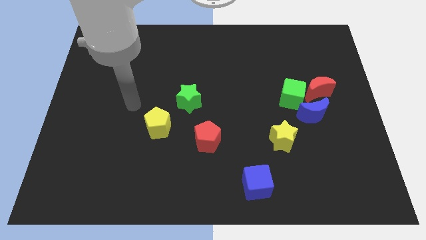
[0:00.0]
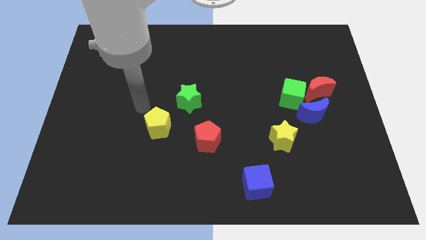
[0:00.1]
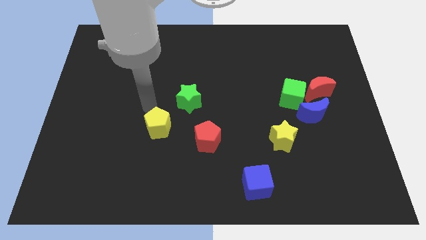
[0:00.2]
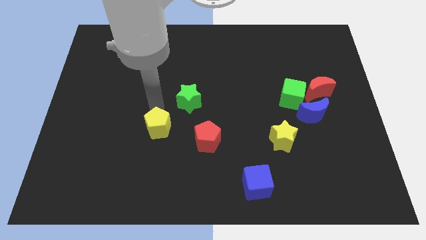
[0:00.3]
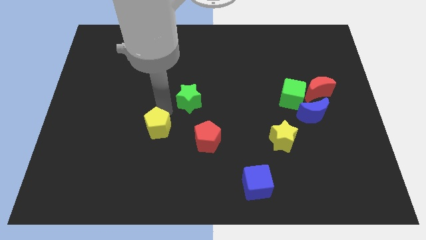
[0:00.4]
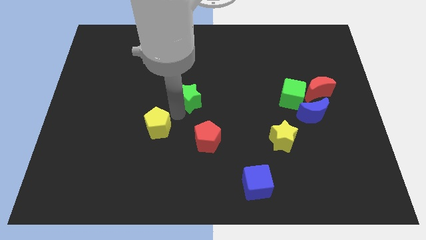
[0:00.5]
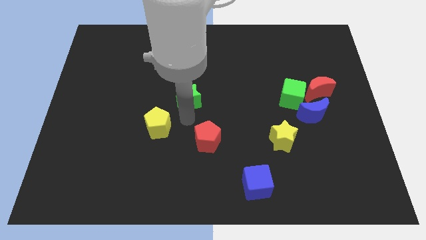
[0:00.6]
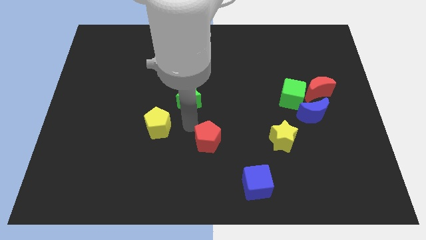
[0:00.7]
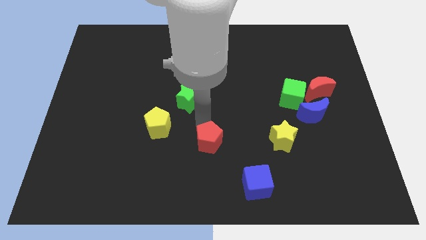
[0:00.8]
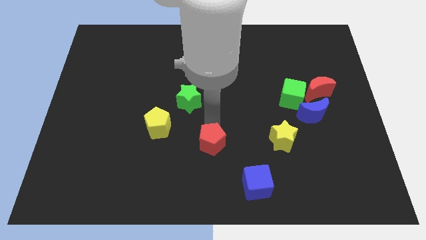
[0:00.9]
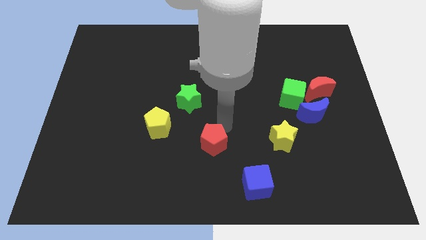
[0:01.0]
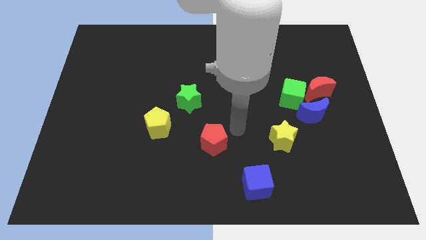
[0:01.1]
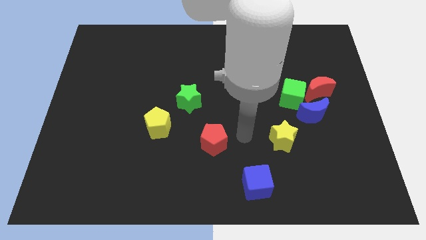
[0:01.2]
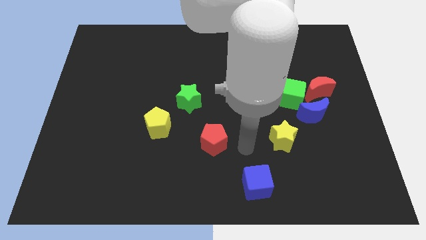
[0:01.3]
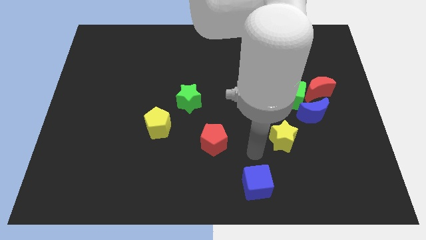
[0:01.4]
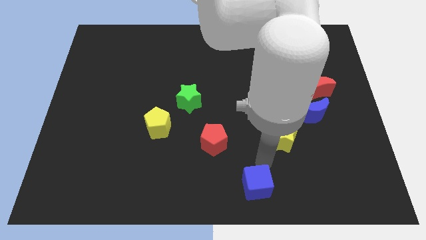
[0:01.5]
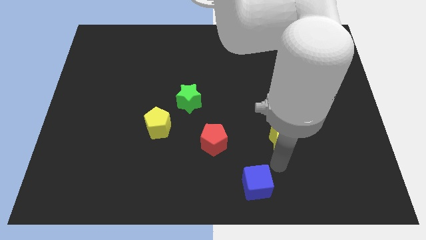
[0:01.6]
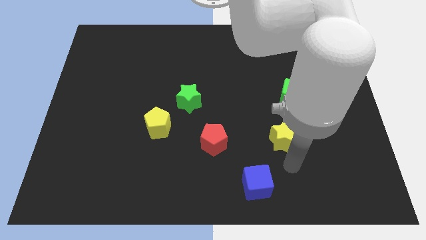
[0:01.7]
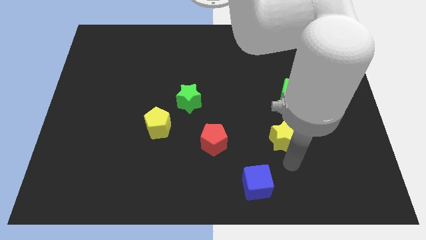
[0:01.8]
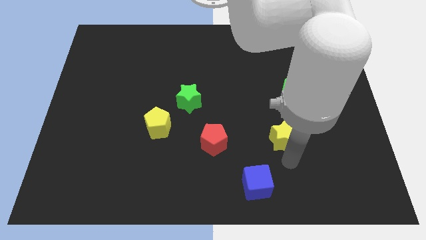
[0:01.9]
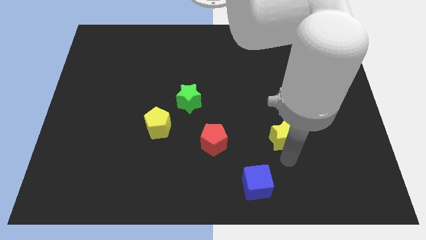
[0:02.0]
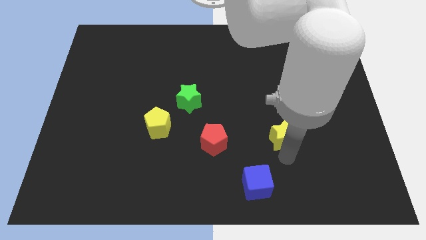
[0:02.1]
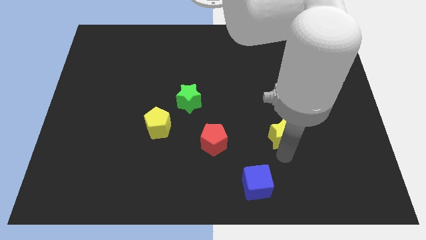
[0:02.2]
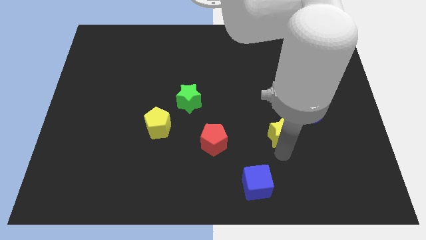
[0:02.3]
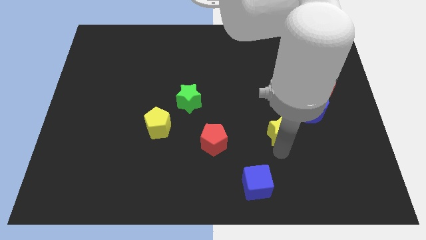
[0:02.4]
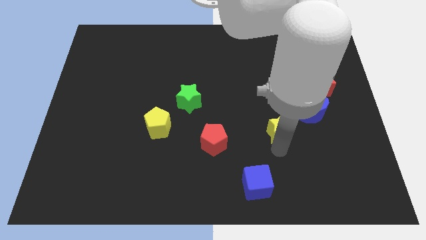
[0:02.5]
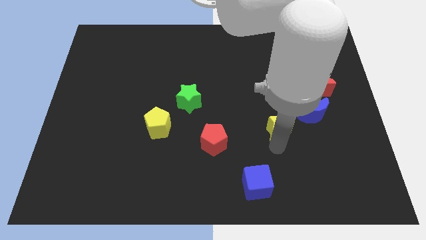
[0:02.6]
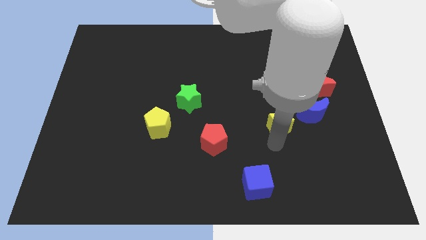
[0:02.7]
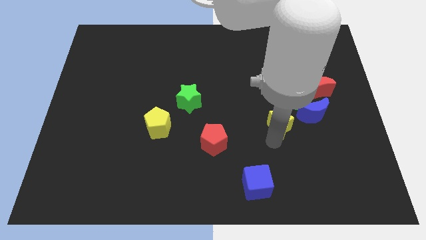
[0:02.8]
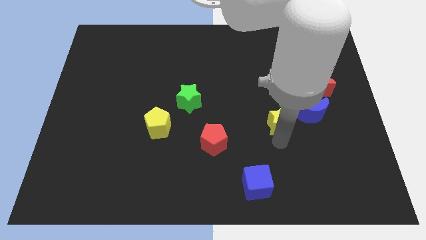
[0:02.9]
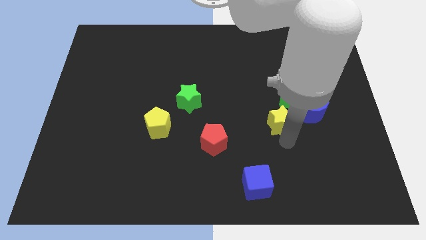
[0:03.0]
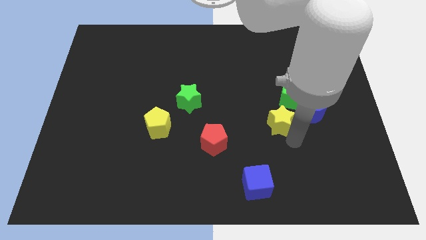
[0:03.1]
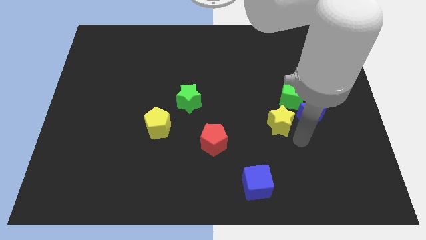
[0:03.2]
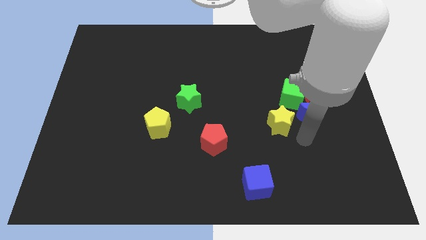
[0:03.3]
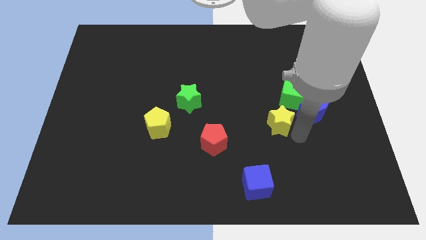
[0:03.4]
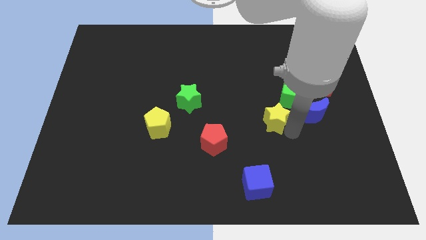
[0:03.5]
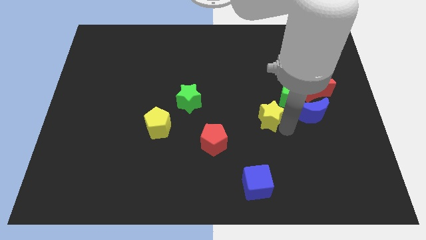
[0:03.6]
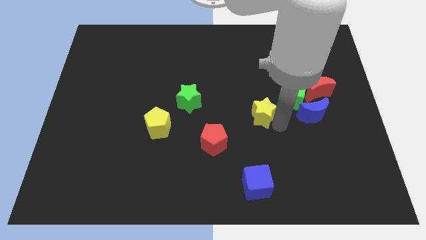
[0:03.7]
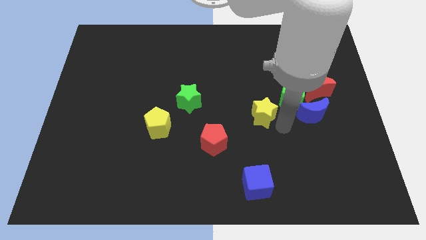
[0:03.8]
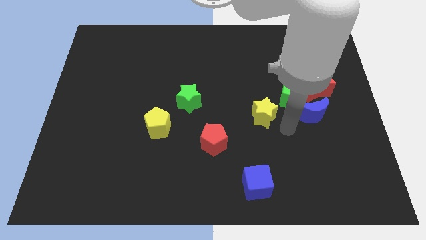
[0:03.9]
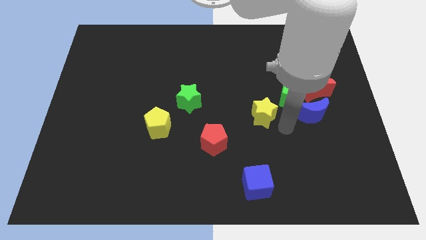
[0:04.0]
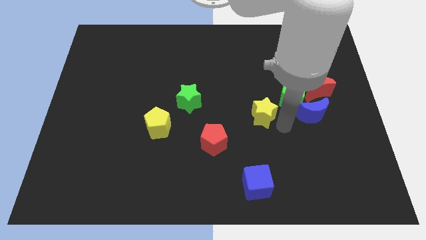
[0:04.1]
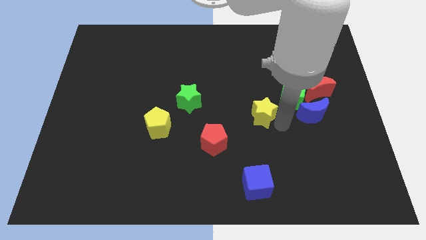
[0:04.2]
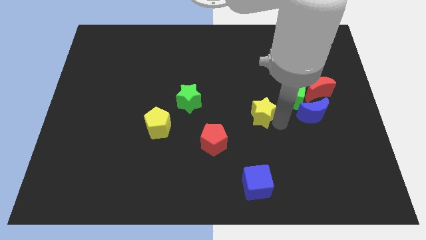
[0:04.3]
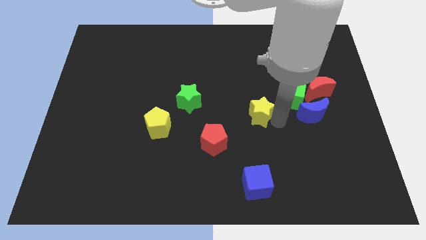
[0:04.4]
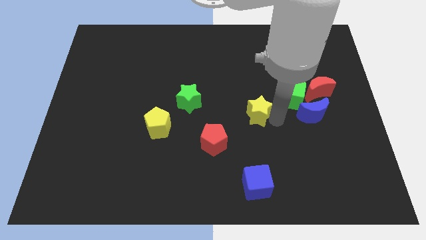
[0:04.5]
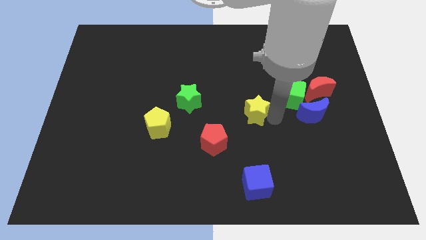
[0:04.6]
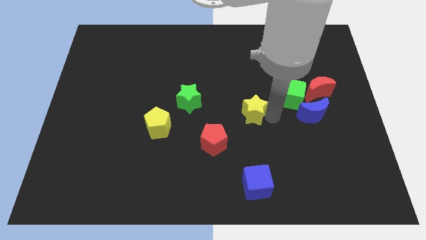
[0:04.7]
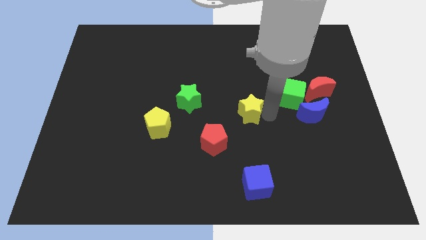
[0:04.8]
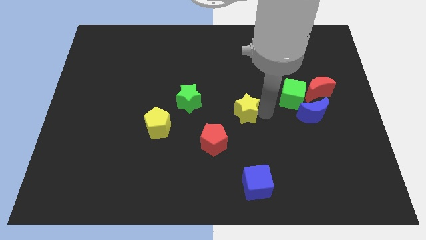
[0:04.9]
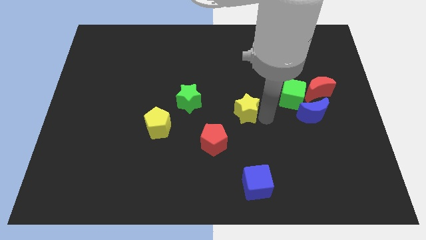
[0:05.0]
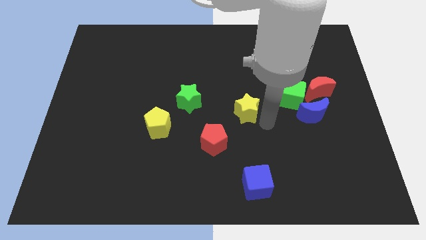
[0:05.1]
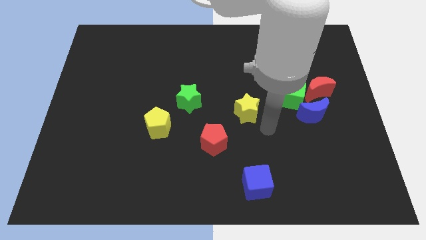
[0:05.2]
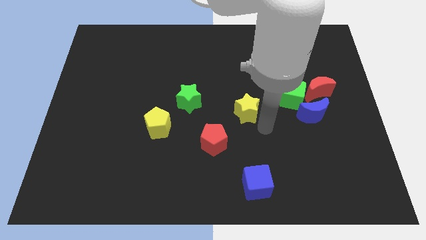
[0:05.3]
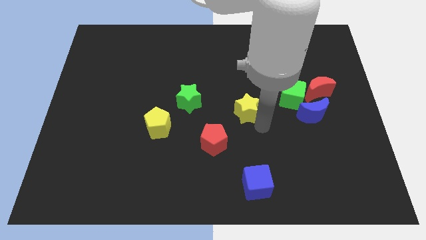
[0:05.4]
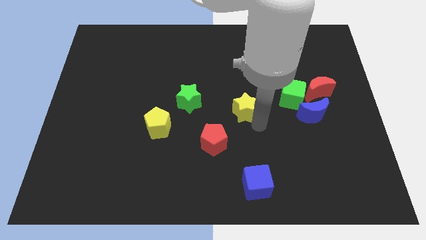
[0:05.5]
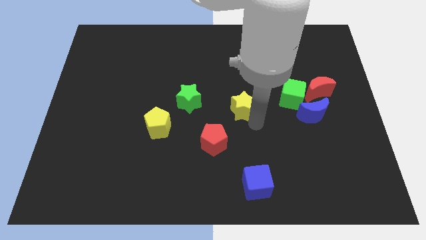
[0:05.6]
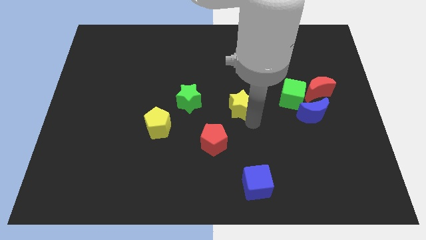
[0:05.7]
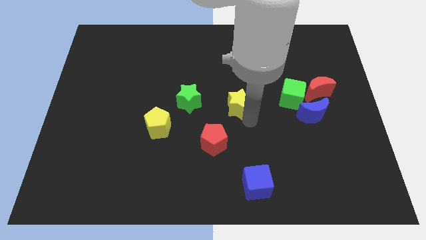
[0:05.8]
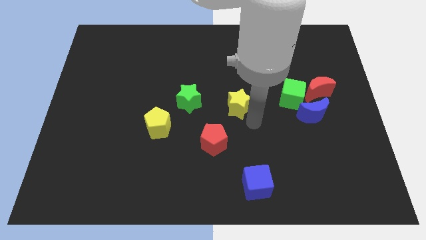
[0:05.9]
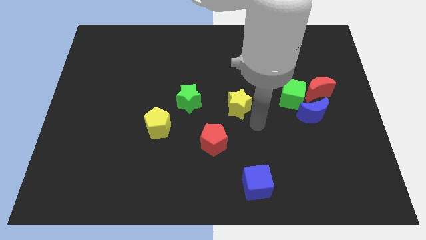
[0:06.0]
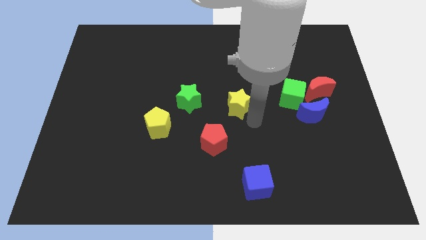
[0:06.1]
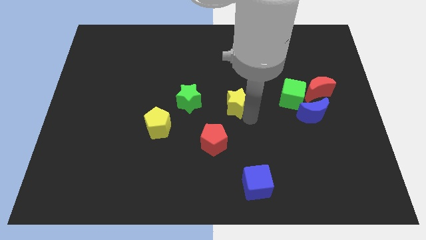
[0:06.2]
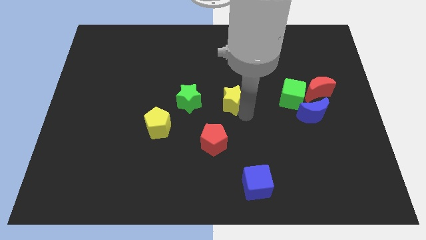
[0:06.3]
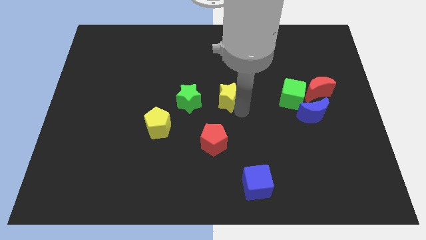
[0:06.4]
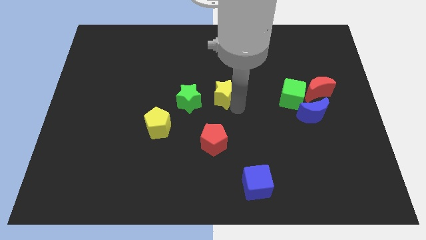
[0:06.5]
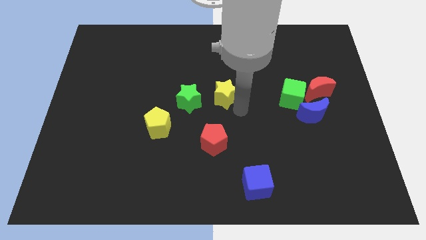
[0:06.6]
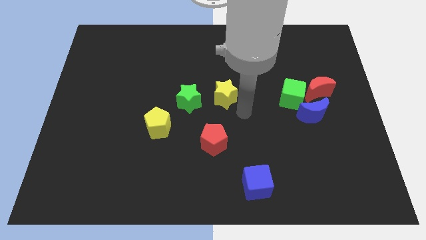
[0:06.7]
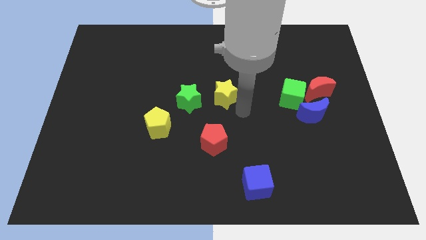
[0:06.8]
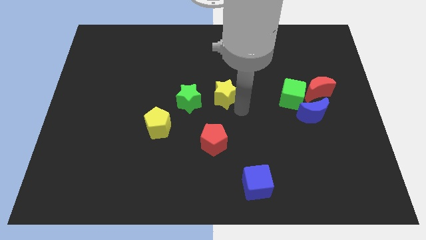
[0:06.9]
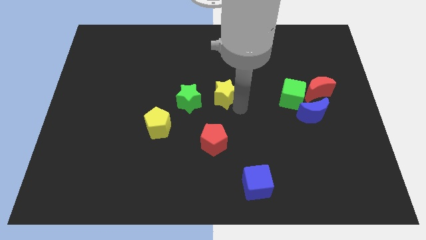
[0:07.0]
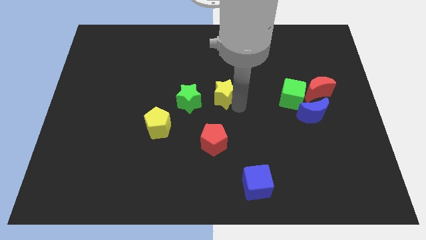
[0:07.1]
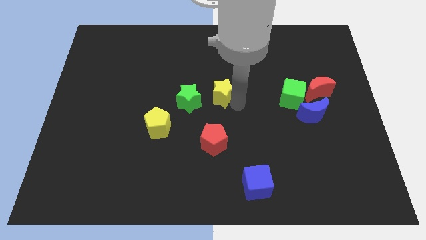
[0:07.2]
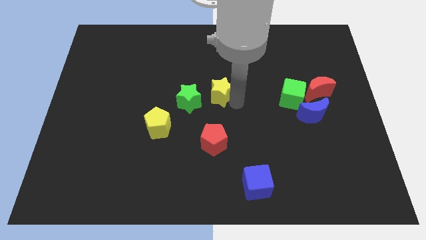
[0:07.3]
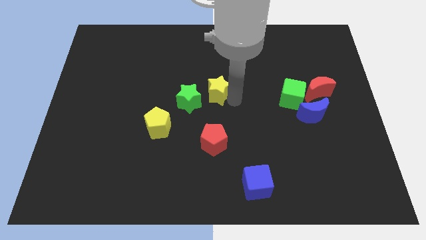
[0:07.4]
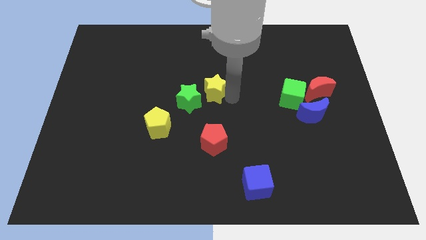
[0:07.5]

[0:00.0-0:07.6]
move the yellow star diagonally upwards and left

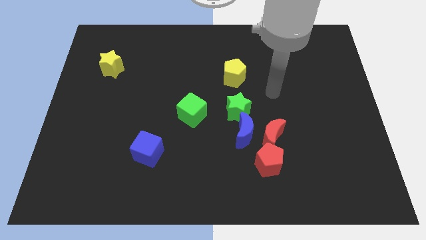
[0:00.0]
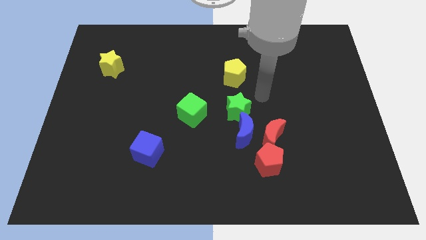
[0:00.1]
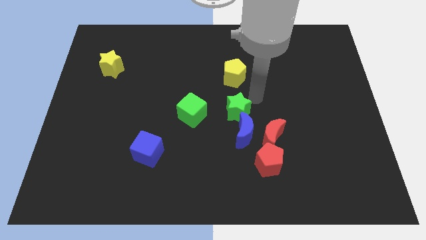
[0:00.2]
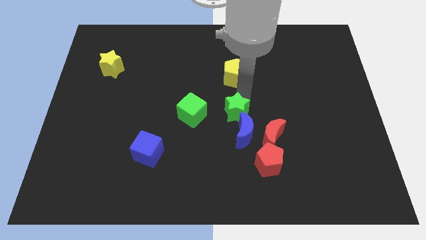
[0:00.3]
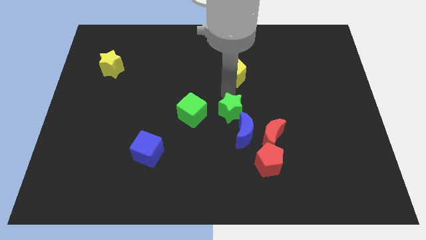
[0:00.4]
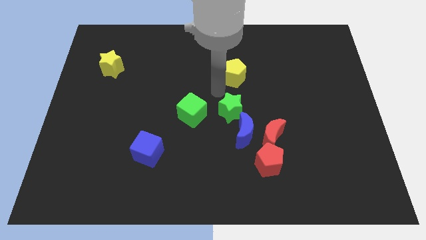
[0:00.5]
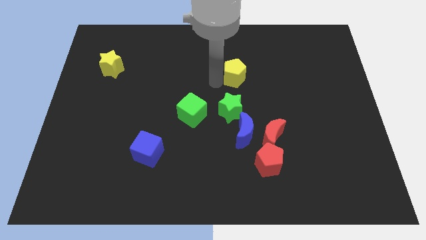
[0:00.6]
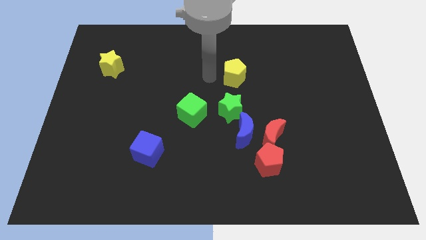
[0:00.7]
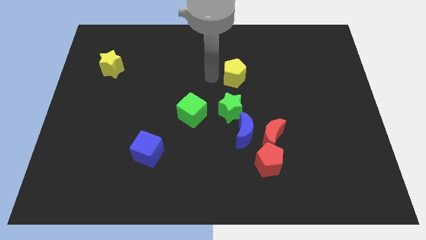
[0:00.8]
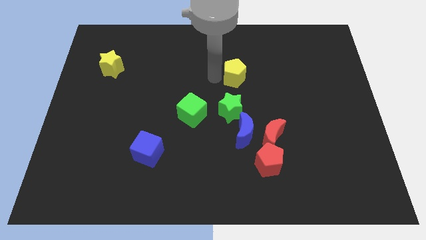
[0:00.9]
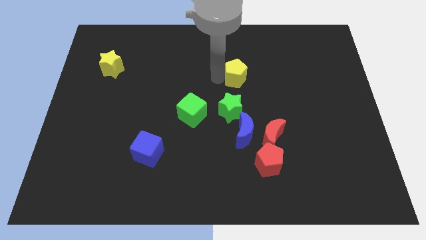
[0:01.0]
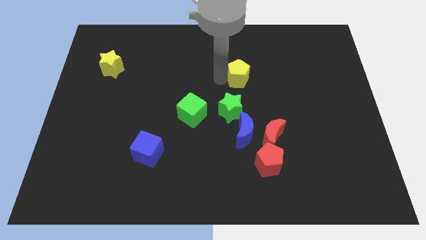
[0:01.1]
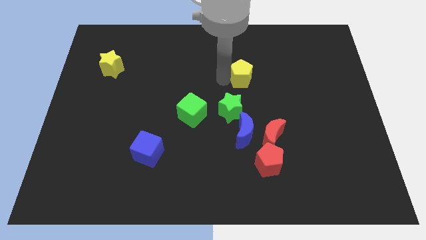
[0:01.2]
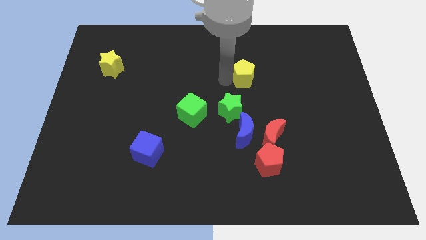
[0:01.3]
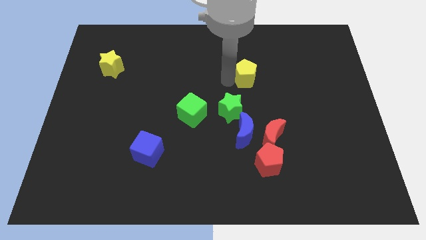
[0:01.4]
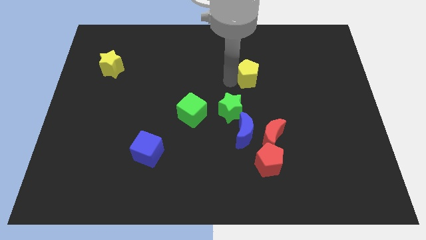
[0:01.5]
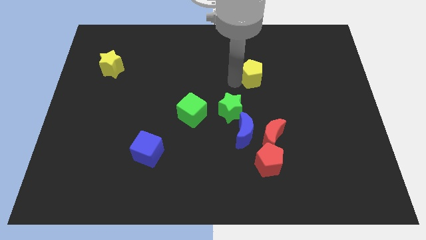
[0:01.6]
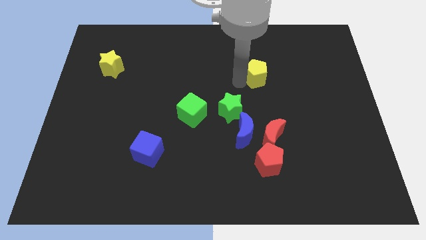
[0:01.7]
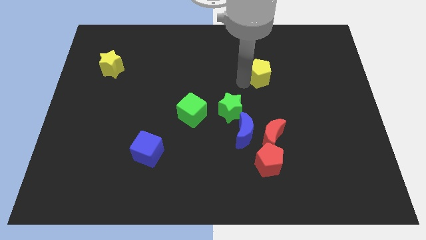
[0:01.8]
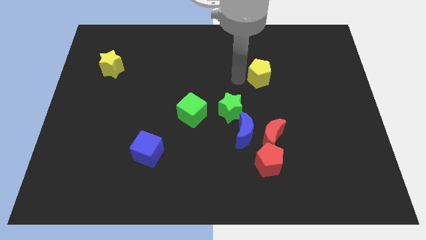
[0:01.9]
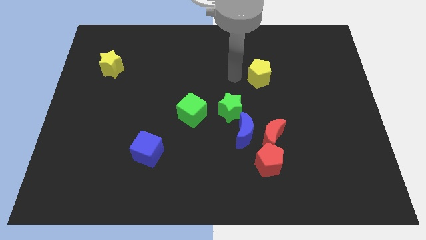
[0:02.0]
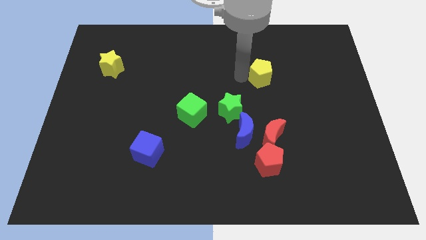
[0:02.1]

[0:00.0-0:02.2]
slightly push the yellow pentagon right
